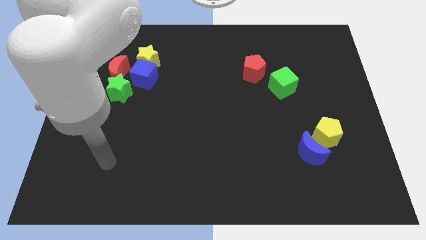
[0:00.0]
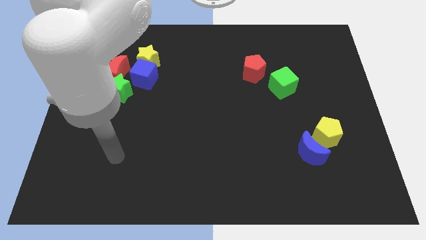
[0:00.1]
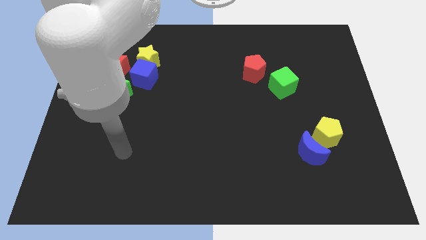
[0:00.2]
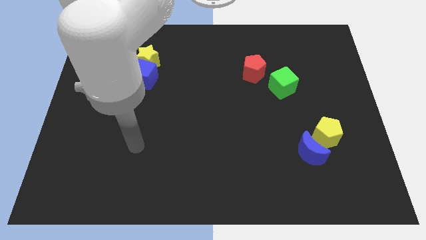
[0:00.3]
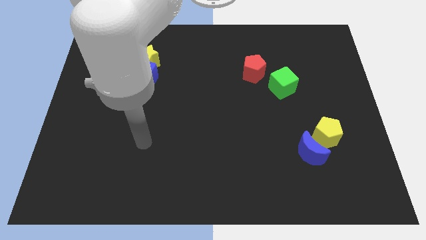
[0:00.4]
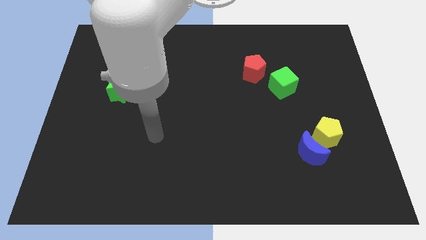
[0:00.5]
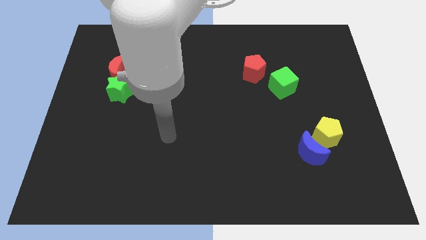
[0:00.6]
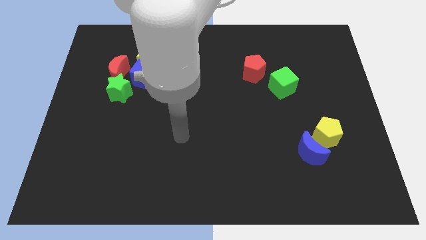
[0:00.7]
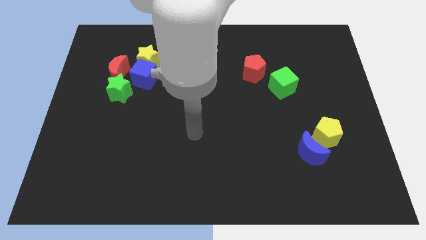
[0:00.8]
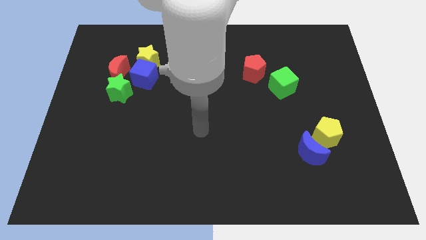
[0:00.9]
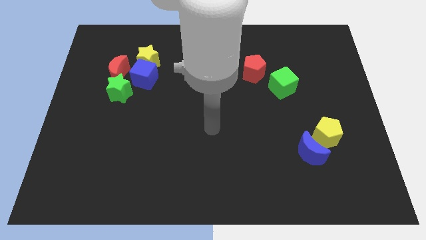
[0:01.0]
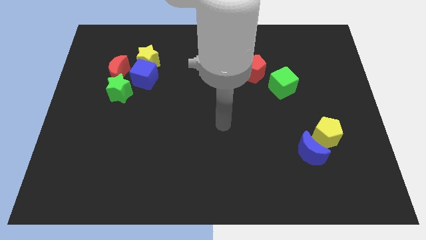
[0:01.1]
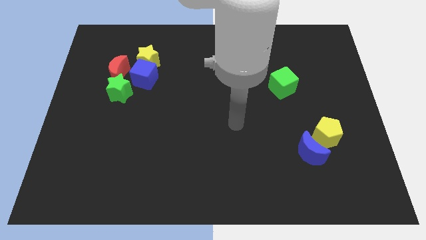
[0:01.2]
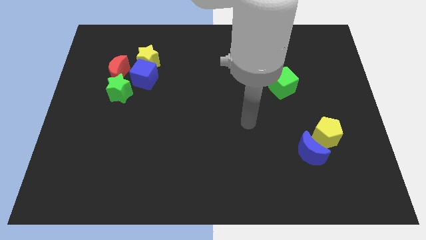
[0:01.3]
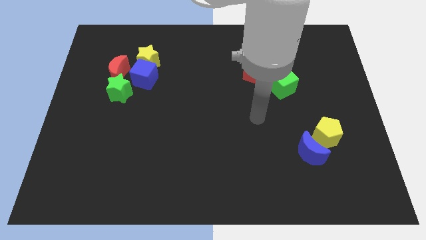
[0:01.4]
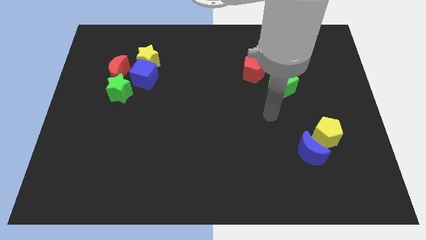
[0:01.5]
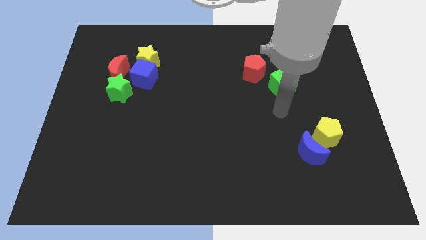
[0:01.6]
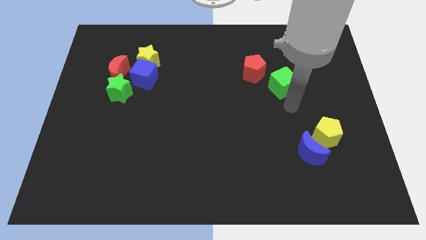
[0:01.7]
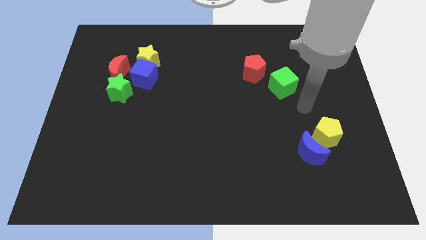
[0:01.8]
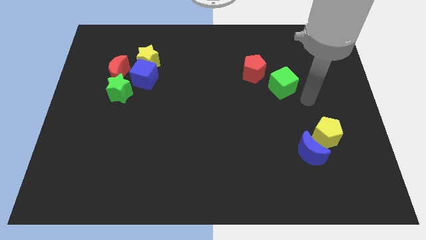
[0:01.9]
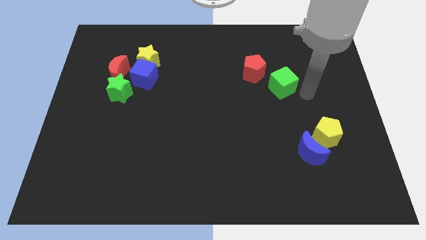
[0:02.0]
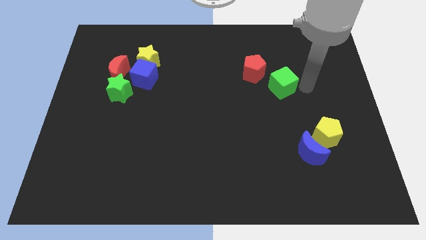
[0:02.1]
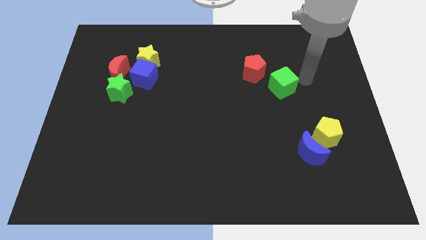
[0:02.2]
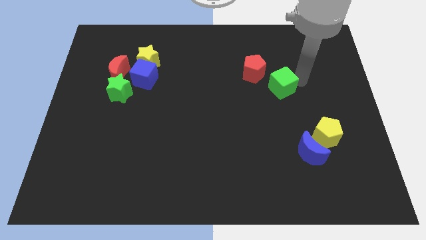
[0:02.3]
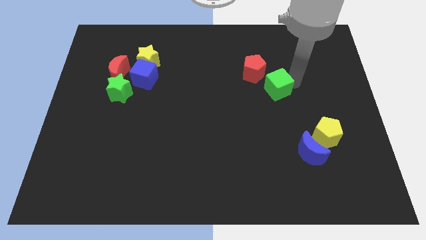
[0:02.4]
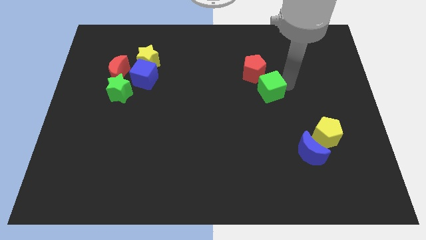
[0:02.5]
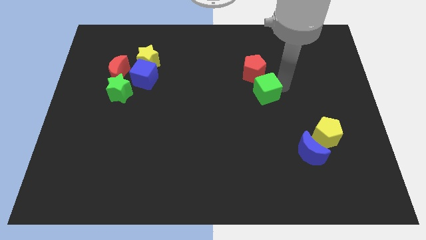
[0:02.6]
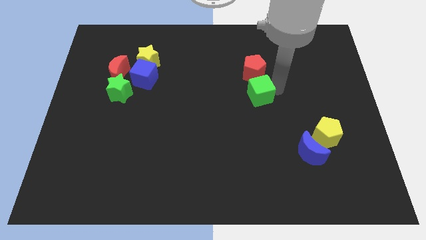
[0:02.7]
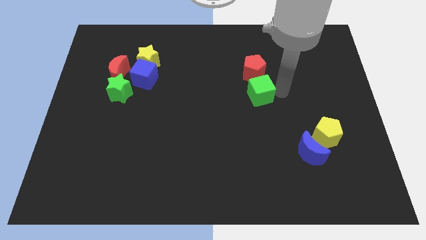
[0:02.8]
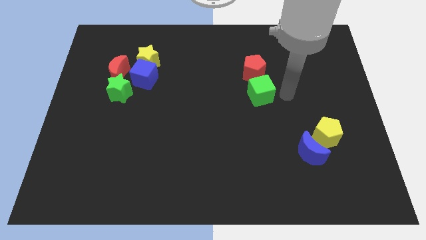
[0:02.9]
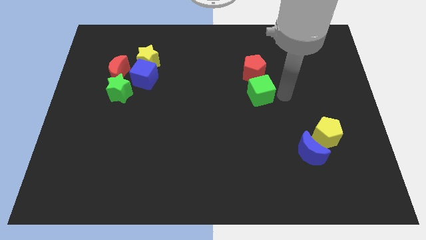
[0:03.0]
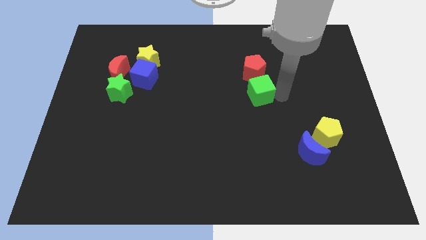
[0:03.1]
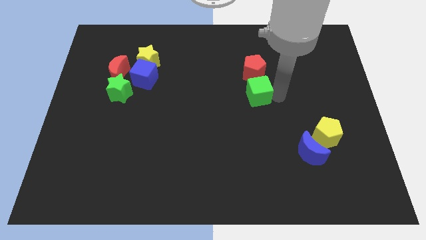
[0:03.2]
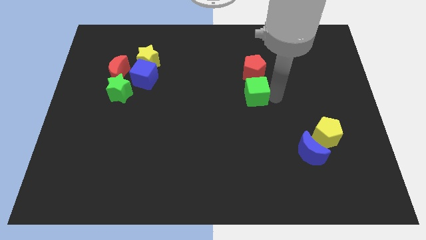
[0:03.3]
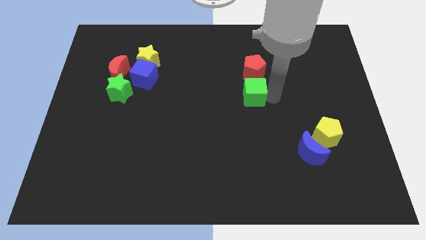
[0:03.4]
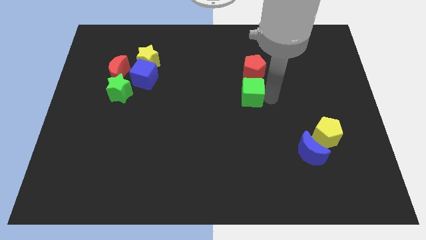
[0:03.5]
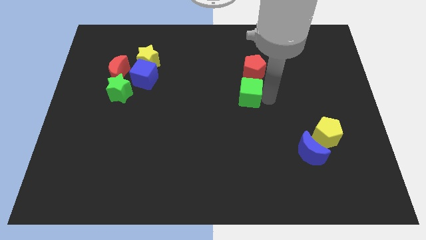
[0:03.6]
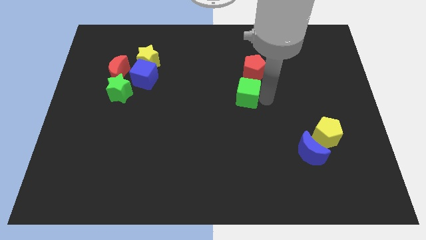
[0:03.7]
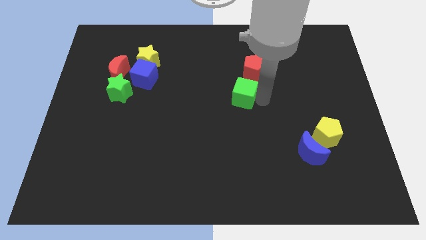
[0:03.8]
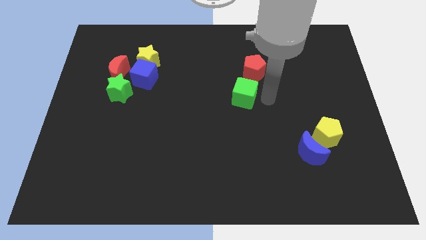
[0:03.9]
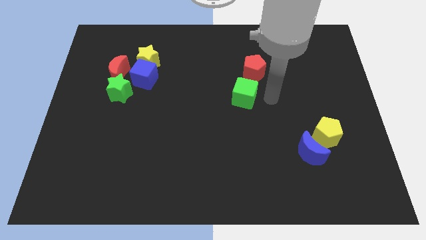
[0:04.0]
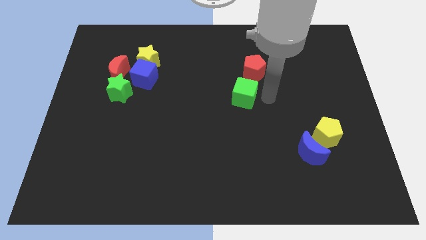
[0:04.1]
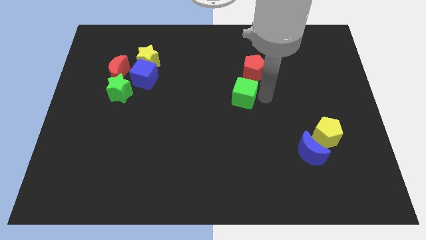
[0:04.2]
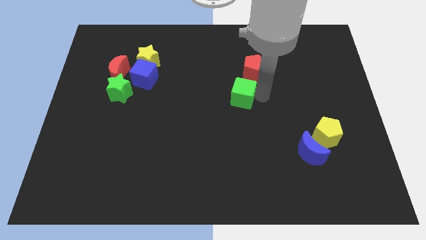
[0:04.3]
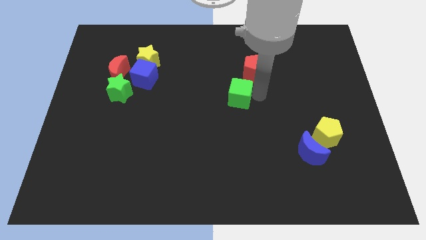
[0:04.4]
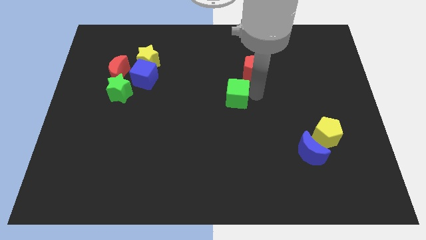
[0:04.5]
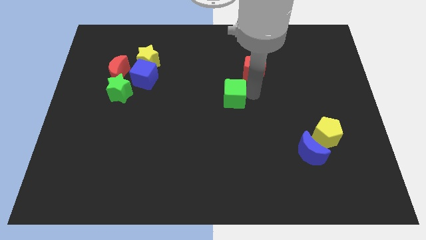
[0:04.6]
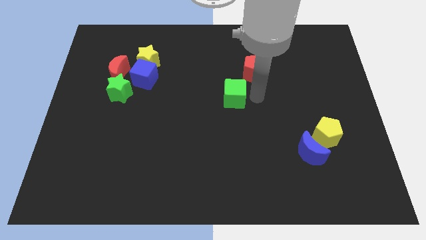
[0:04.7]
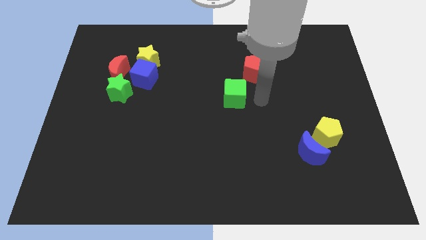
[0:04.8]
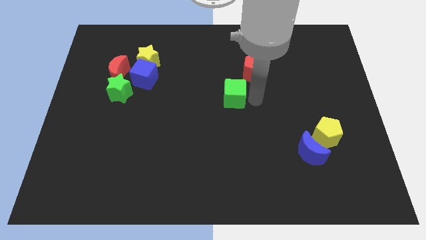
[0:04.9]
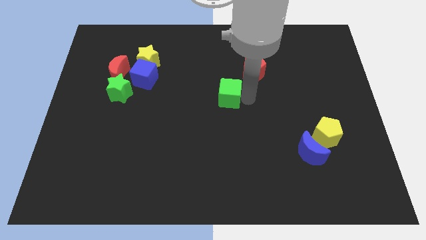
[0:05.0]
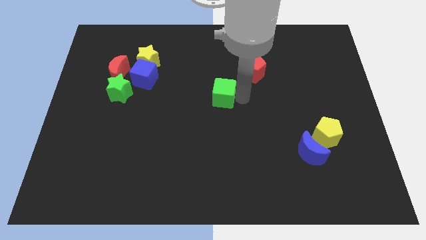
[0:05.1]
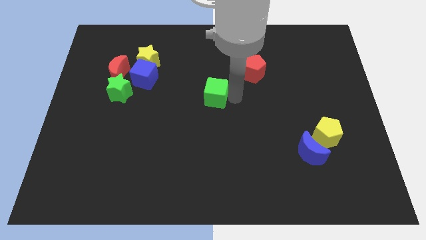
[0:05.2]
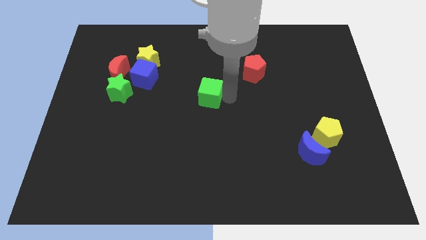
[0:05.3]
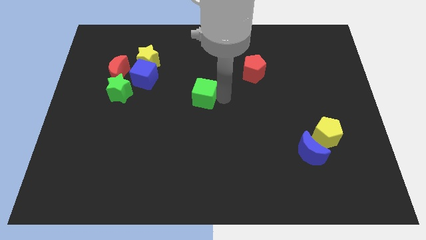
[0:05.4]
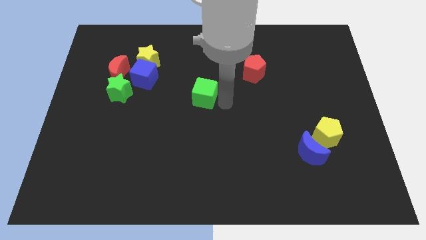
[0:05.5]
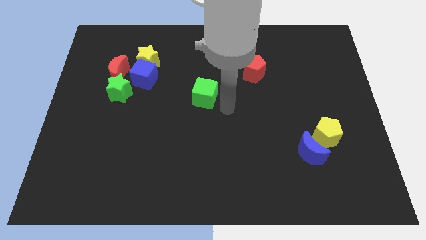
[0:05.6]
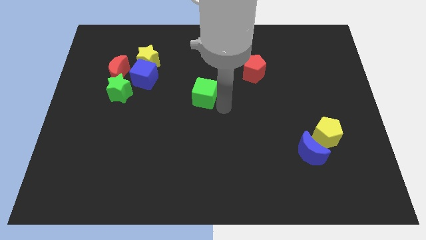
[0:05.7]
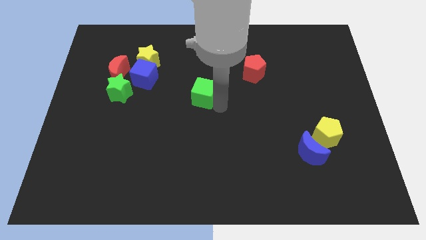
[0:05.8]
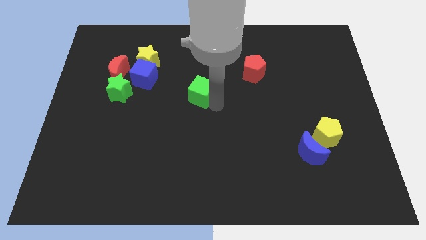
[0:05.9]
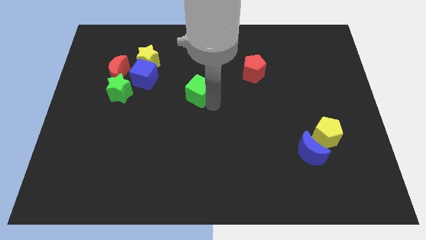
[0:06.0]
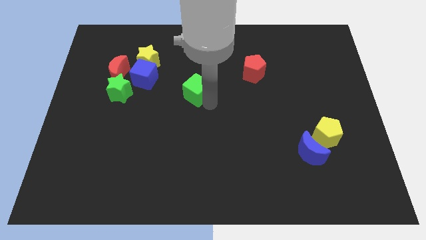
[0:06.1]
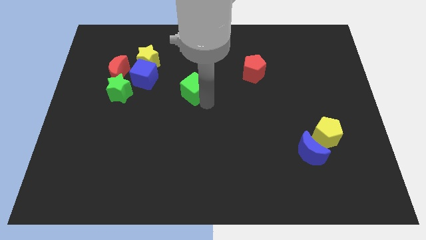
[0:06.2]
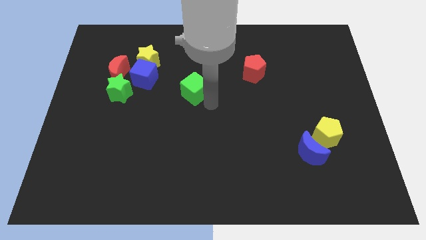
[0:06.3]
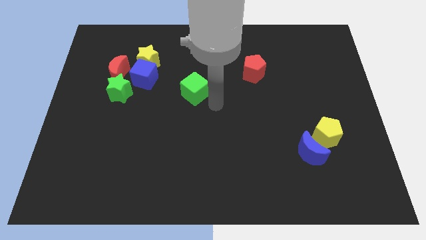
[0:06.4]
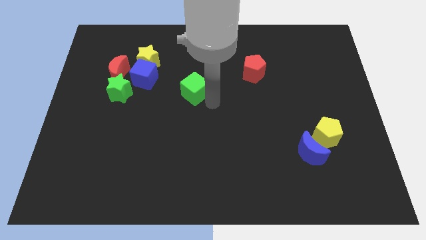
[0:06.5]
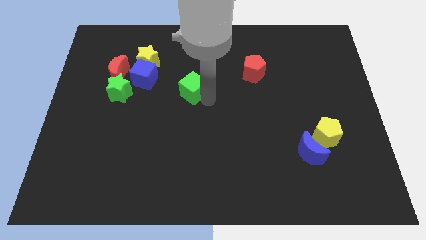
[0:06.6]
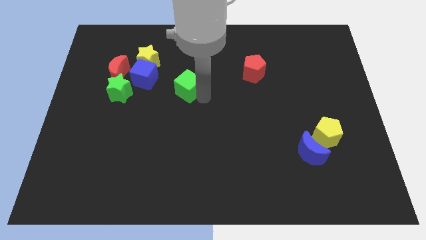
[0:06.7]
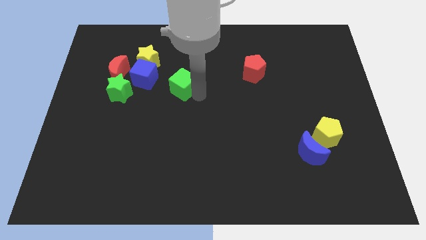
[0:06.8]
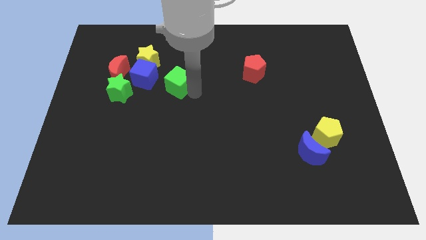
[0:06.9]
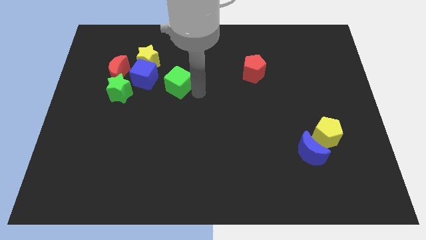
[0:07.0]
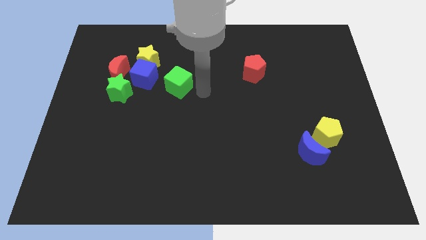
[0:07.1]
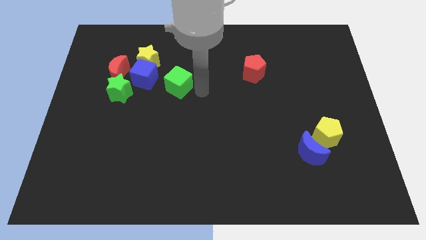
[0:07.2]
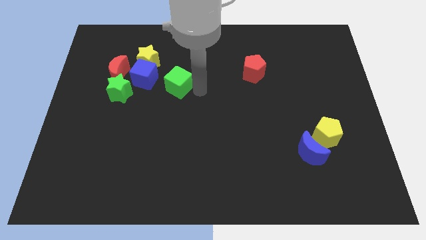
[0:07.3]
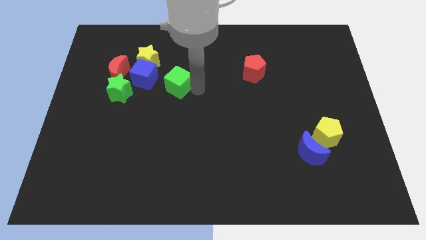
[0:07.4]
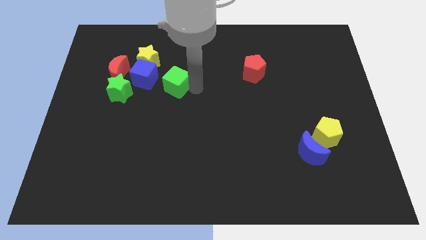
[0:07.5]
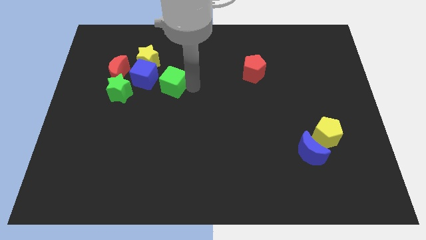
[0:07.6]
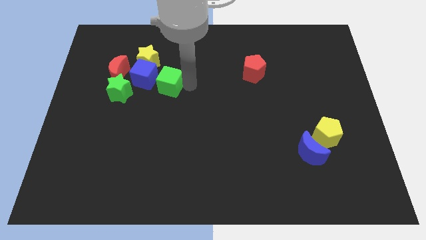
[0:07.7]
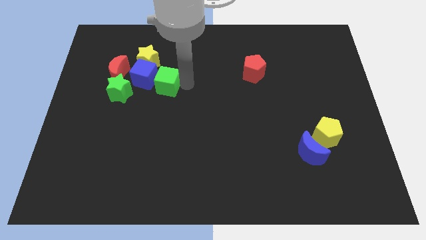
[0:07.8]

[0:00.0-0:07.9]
slide the green cube towards the blue cube
